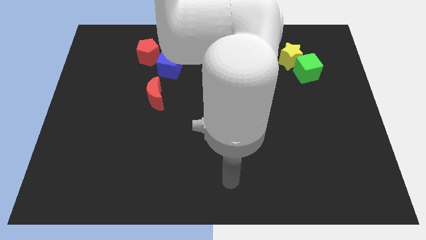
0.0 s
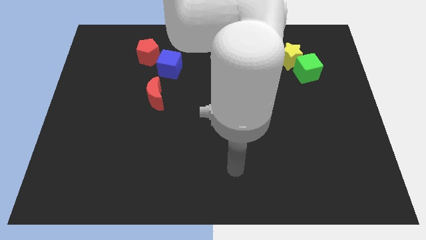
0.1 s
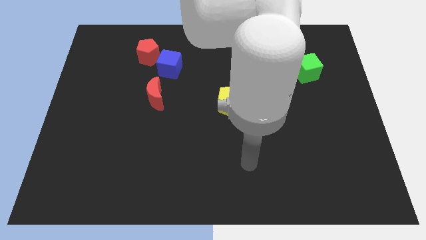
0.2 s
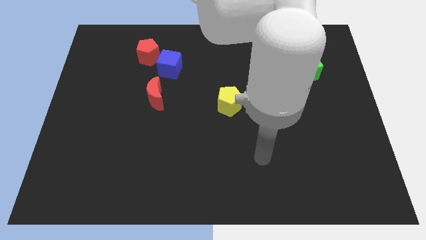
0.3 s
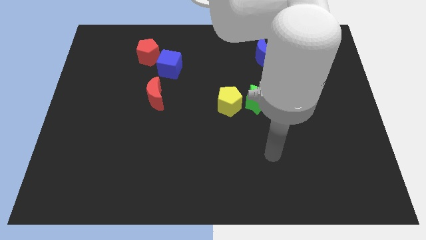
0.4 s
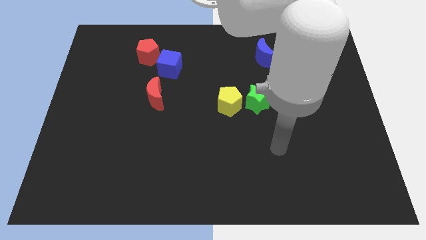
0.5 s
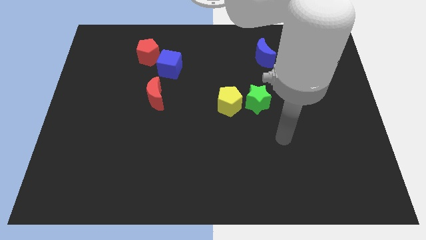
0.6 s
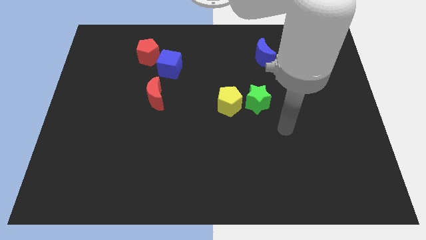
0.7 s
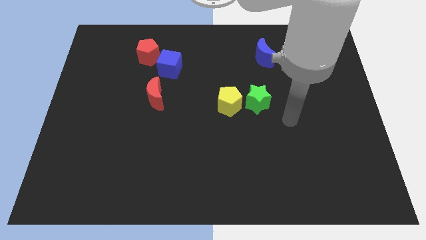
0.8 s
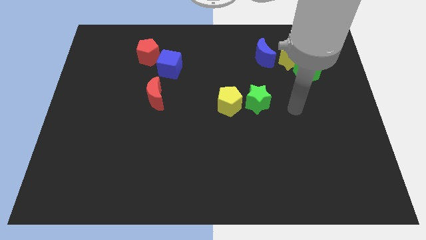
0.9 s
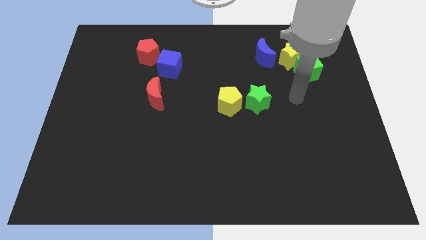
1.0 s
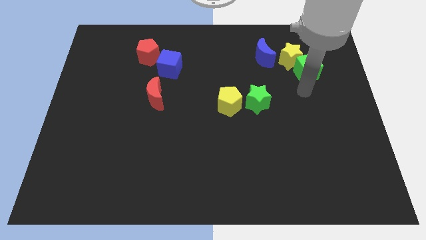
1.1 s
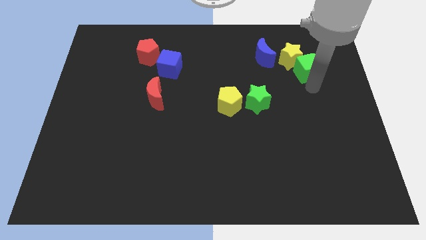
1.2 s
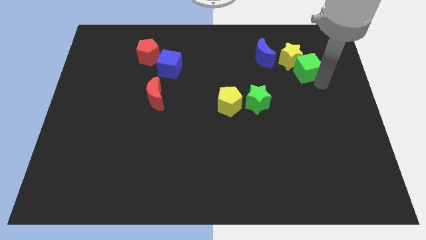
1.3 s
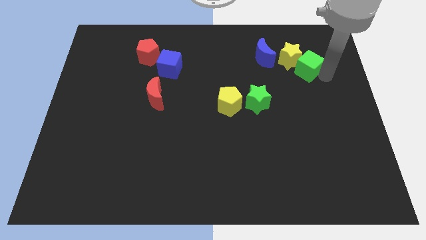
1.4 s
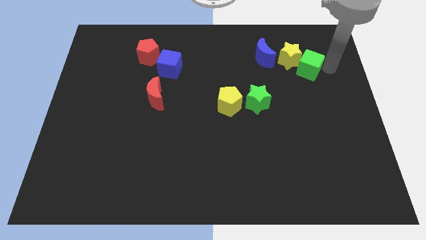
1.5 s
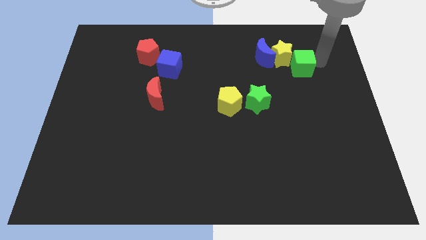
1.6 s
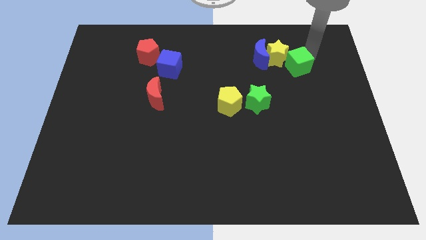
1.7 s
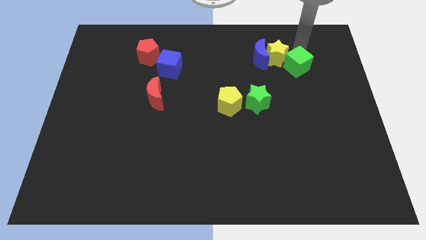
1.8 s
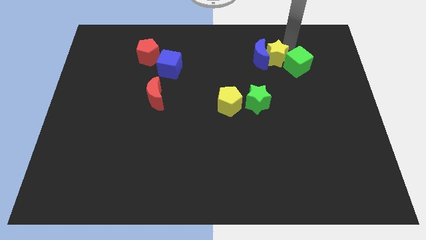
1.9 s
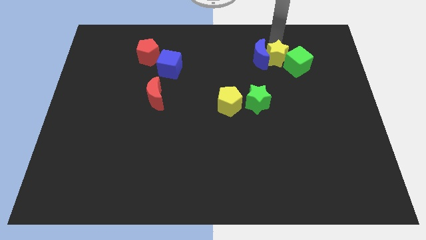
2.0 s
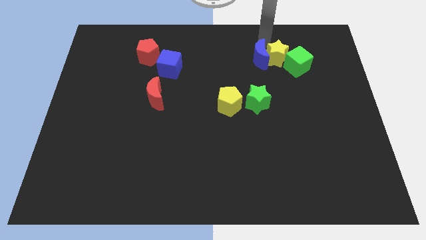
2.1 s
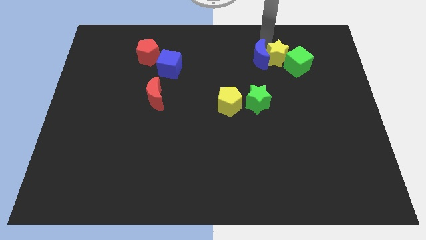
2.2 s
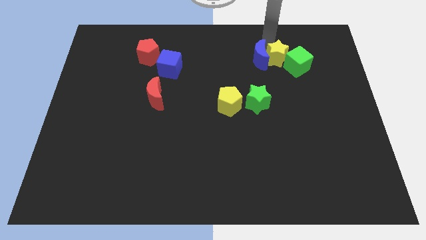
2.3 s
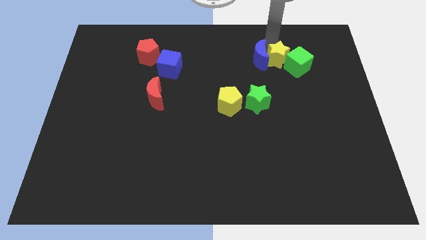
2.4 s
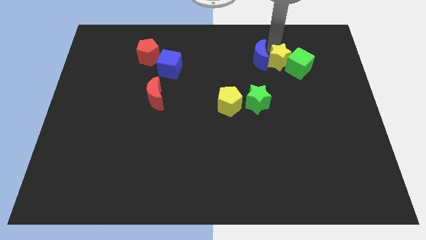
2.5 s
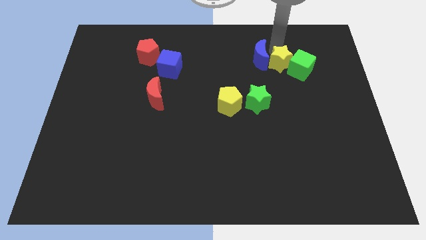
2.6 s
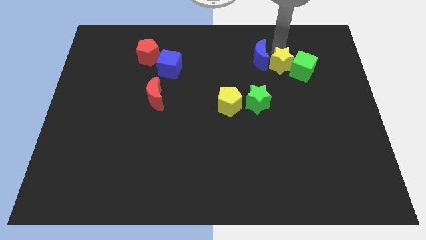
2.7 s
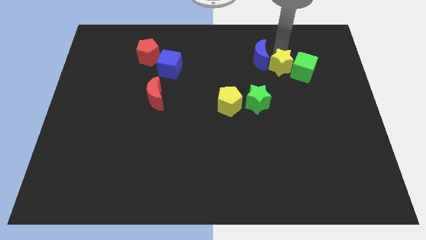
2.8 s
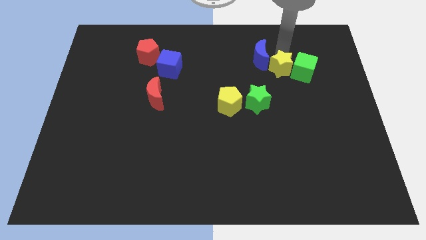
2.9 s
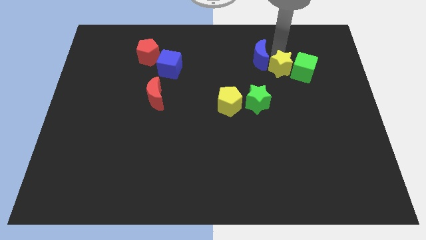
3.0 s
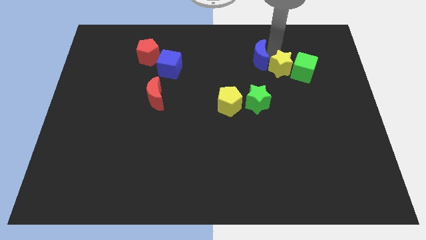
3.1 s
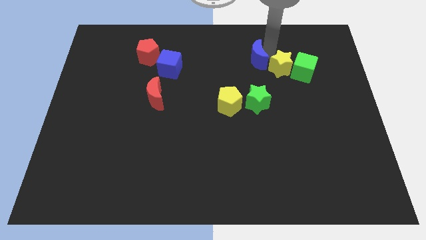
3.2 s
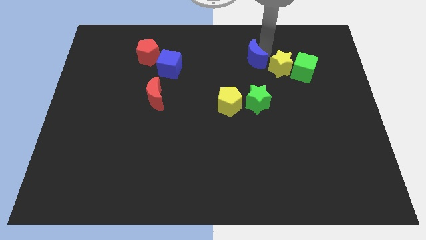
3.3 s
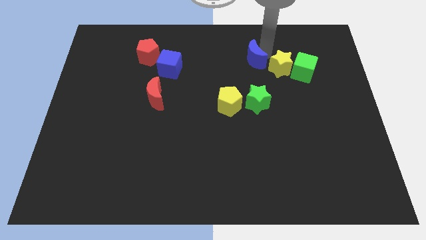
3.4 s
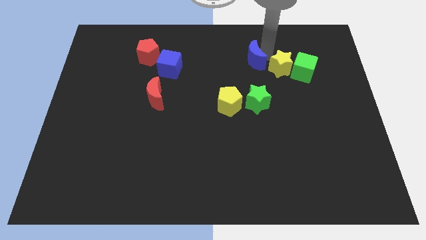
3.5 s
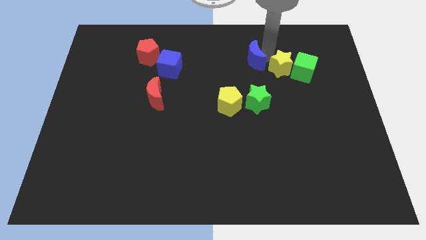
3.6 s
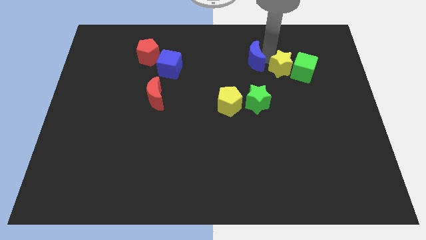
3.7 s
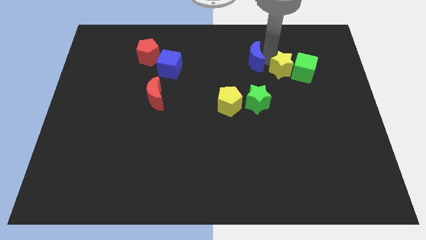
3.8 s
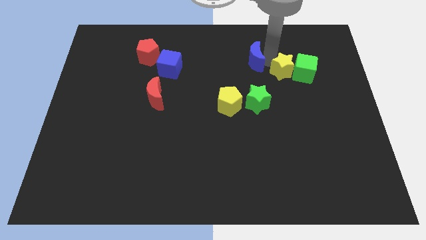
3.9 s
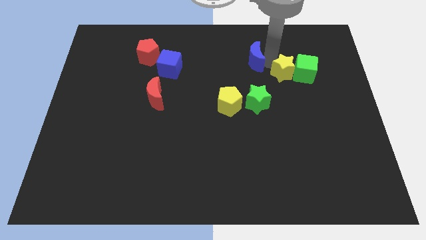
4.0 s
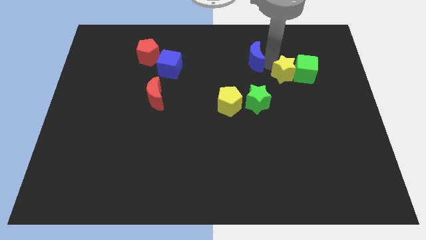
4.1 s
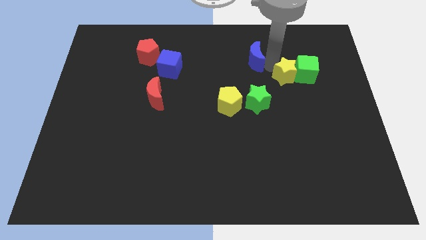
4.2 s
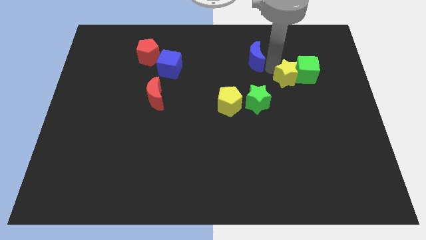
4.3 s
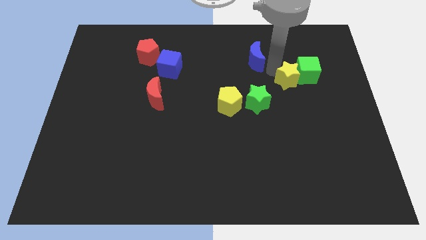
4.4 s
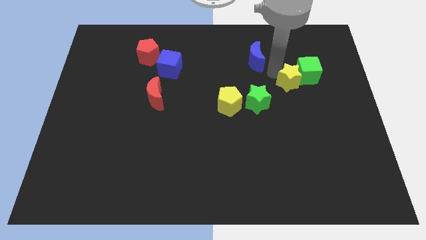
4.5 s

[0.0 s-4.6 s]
slightly move the yellow star downwards

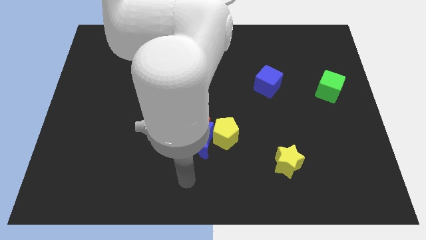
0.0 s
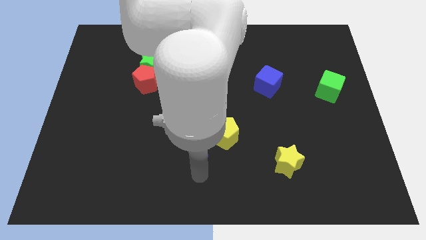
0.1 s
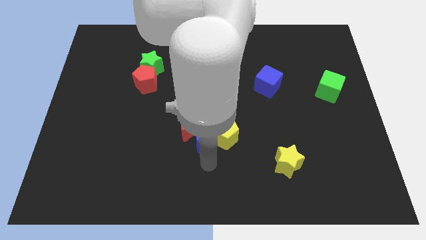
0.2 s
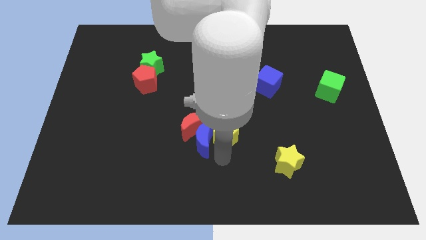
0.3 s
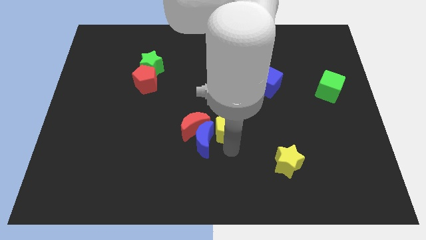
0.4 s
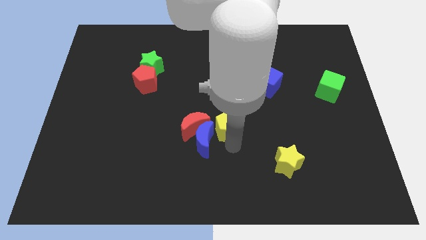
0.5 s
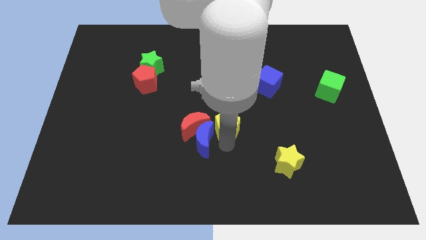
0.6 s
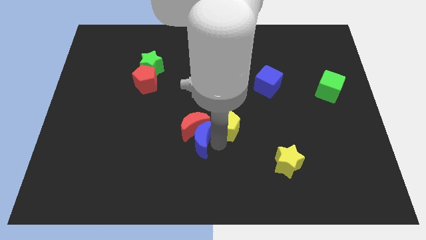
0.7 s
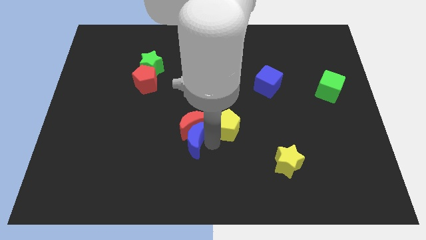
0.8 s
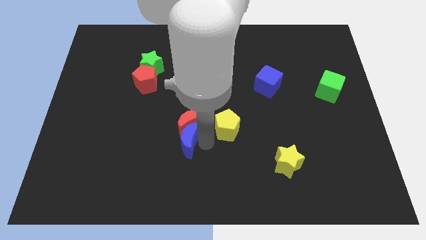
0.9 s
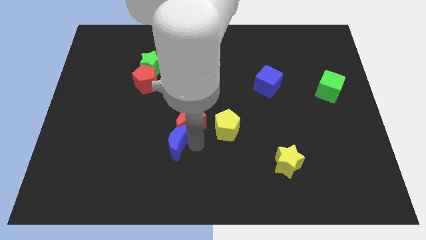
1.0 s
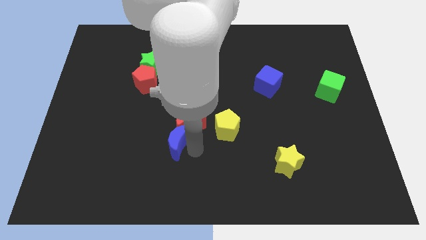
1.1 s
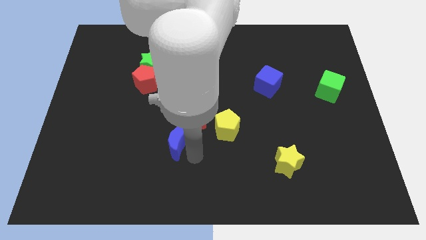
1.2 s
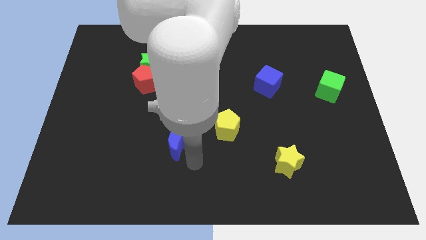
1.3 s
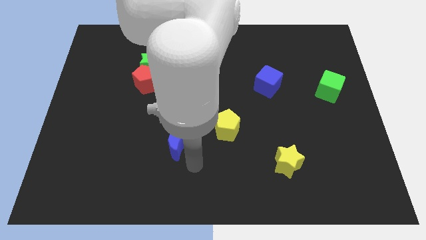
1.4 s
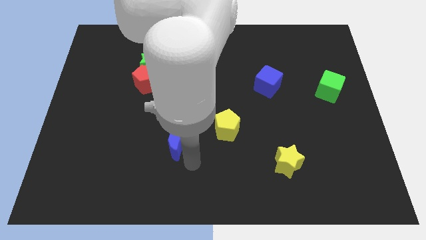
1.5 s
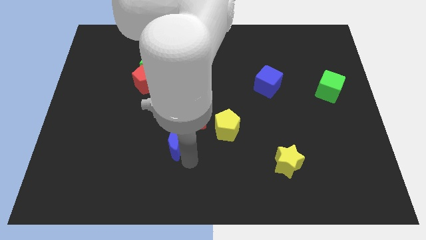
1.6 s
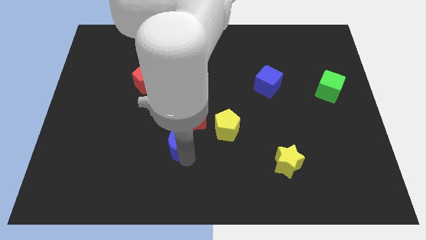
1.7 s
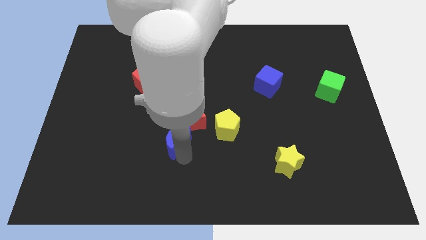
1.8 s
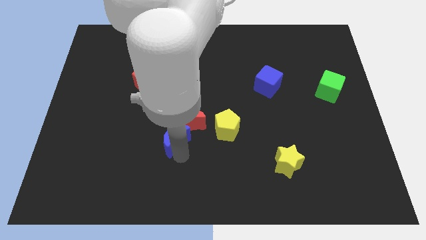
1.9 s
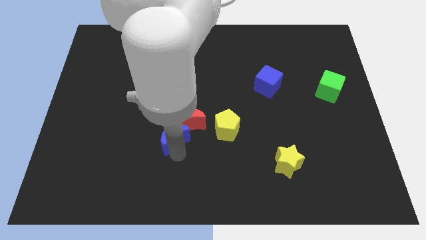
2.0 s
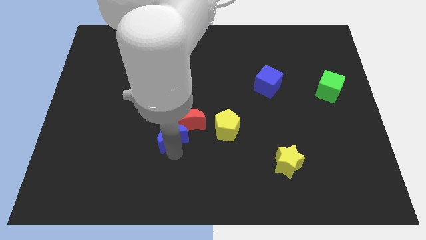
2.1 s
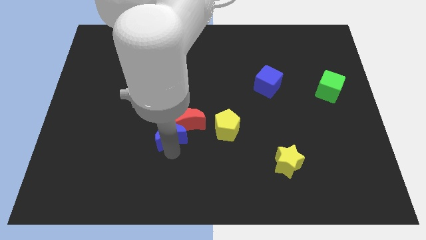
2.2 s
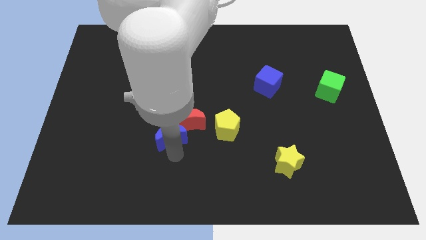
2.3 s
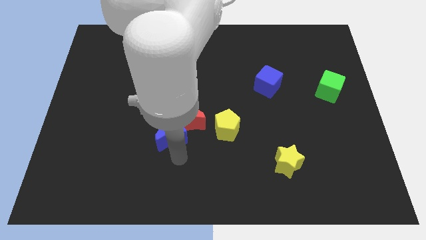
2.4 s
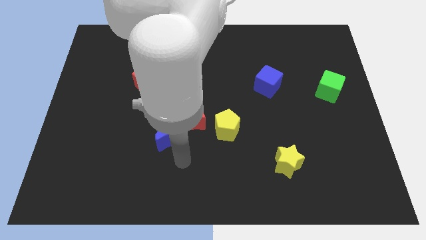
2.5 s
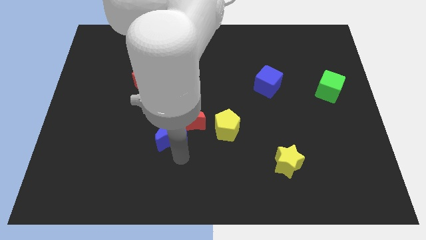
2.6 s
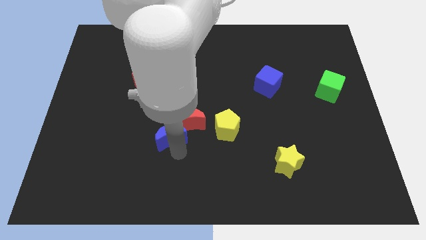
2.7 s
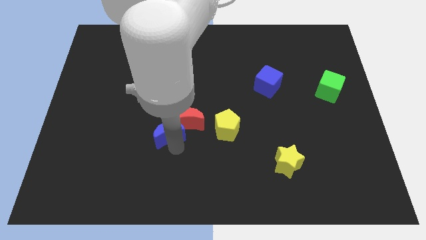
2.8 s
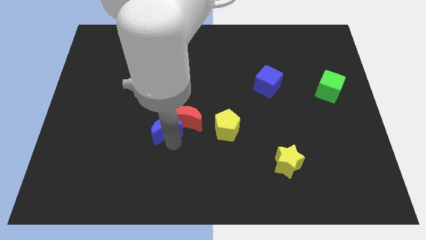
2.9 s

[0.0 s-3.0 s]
move the blue moon slightly up and to the left diagonally

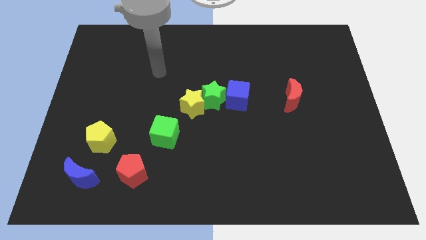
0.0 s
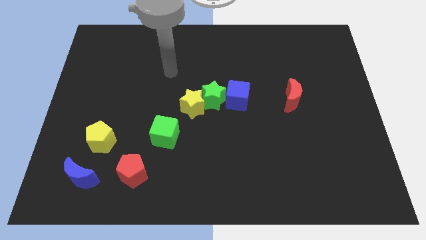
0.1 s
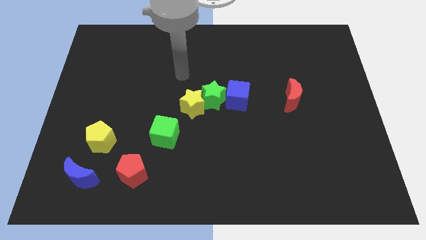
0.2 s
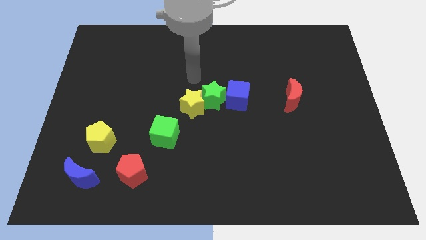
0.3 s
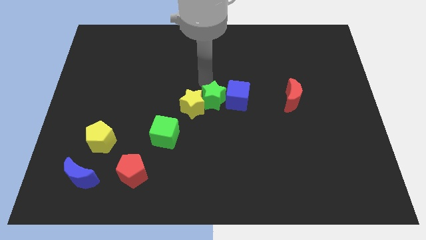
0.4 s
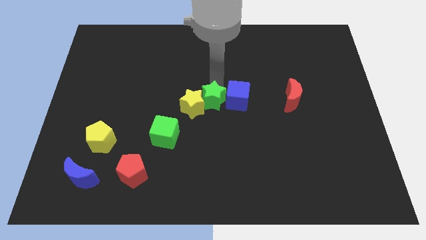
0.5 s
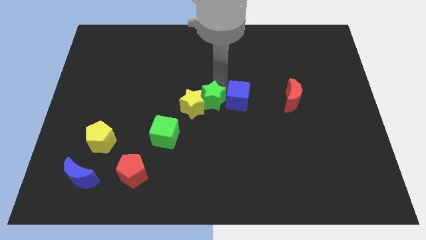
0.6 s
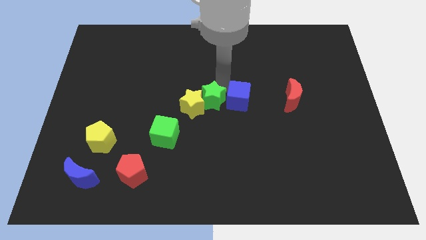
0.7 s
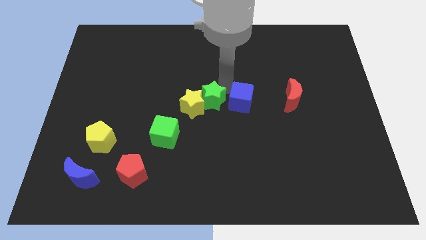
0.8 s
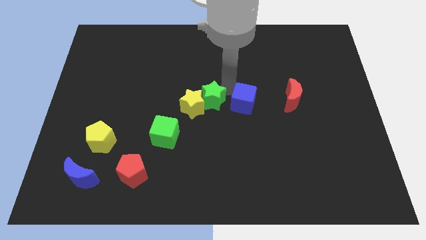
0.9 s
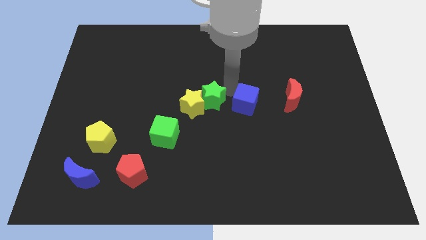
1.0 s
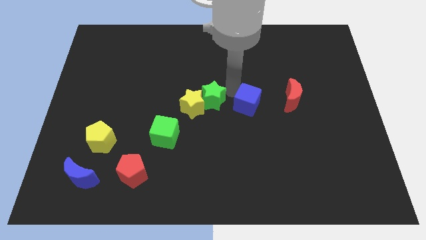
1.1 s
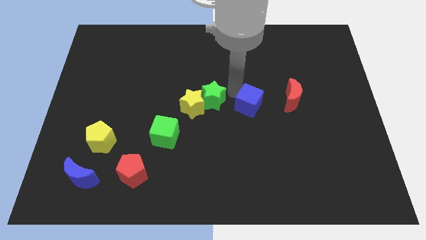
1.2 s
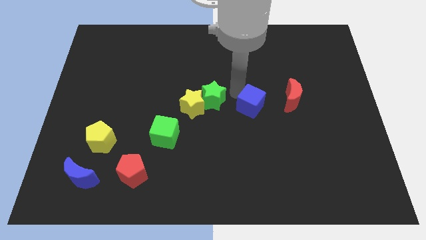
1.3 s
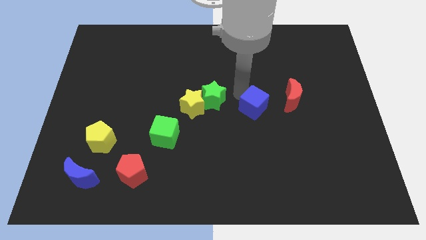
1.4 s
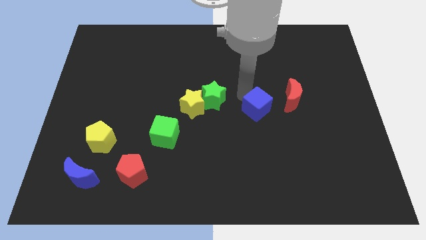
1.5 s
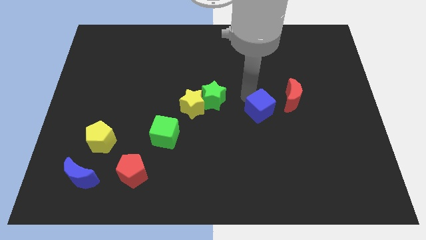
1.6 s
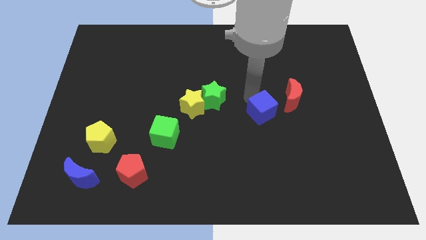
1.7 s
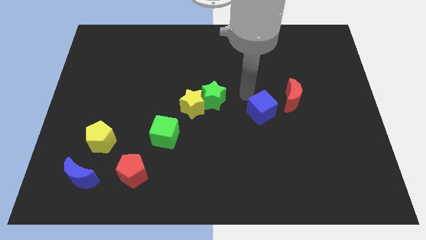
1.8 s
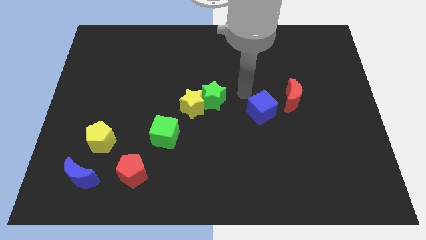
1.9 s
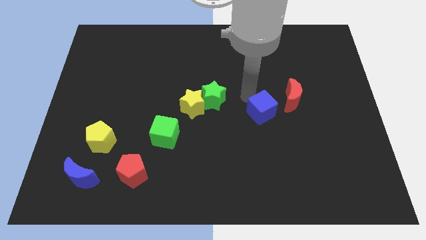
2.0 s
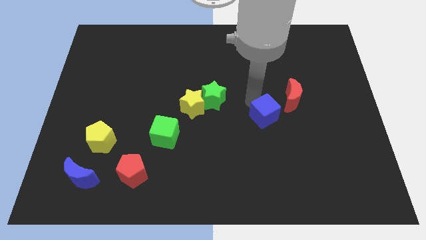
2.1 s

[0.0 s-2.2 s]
slide the blue cube a bit down and to the right
